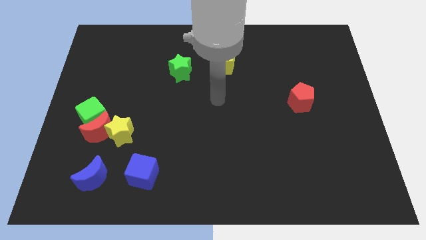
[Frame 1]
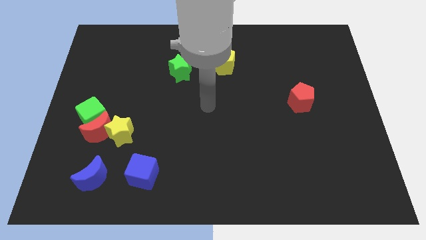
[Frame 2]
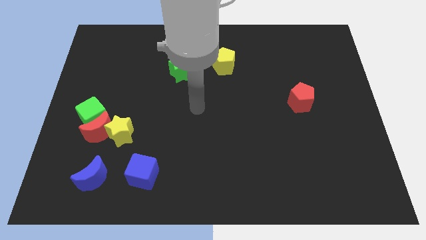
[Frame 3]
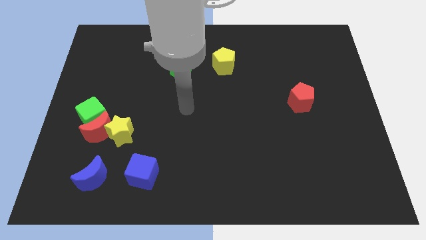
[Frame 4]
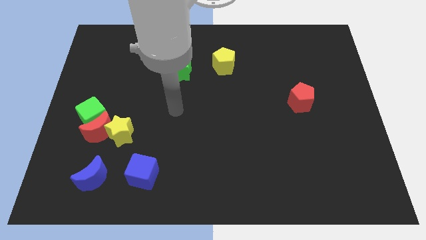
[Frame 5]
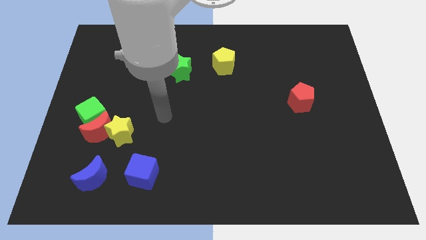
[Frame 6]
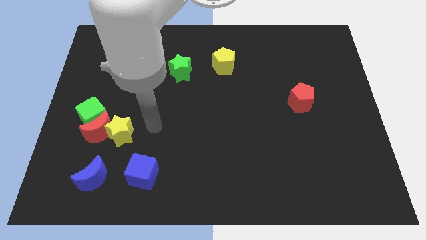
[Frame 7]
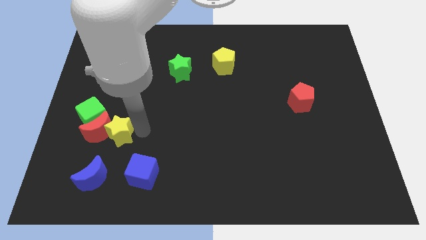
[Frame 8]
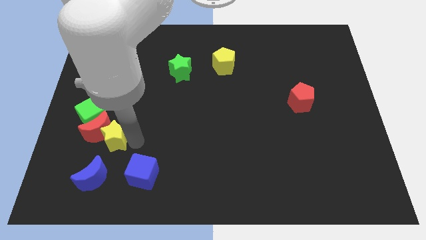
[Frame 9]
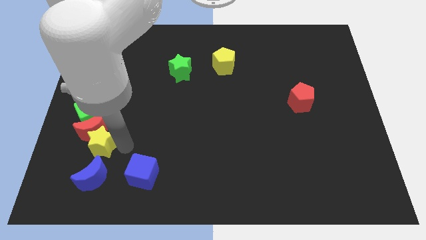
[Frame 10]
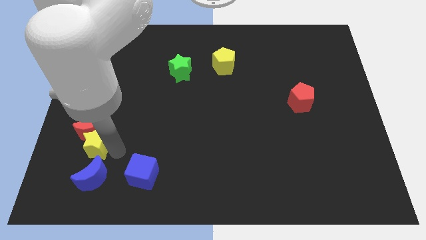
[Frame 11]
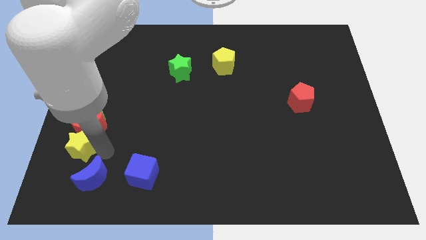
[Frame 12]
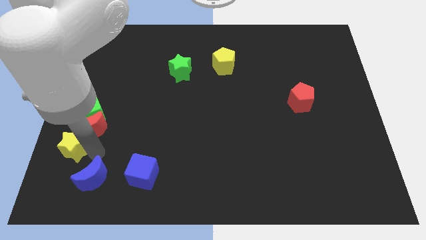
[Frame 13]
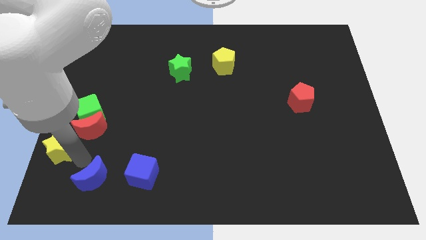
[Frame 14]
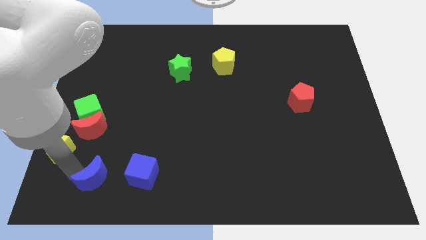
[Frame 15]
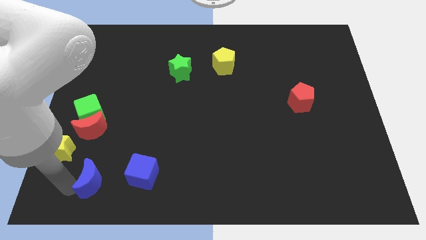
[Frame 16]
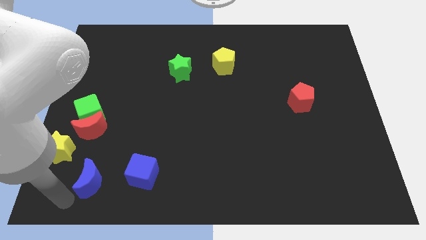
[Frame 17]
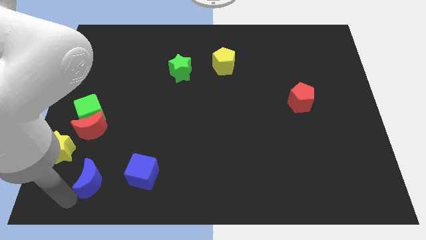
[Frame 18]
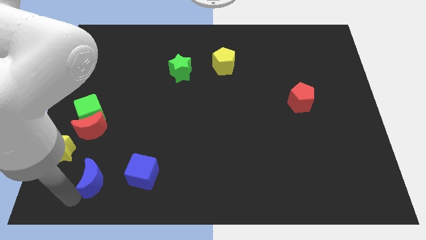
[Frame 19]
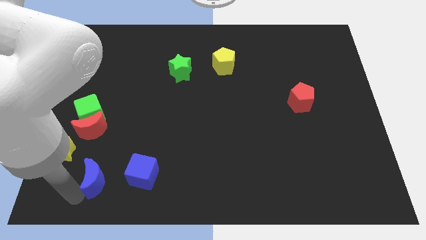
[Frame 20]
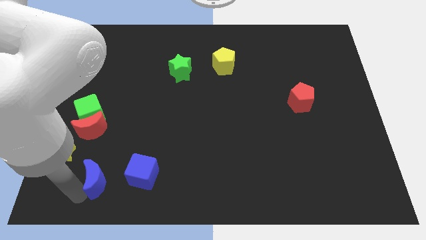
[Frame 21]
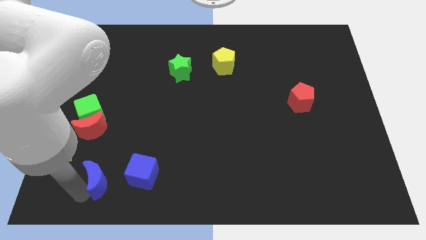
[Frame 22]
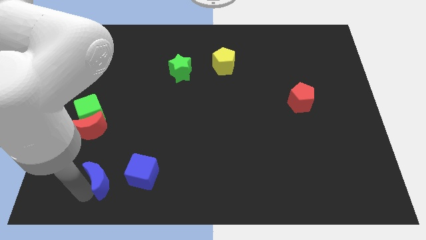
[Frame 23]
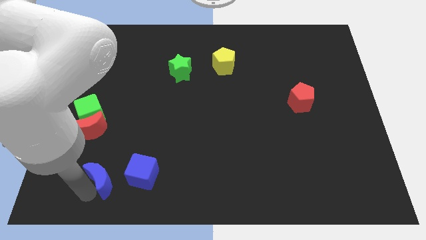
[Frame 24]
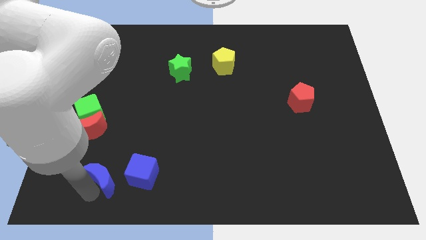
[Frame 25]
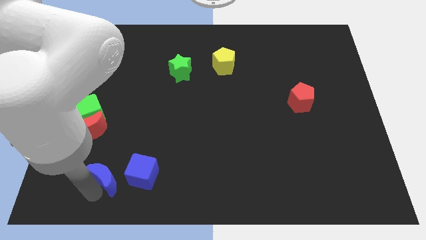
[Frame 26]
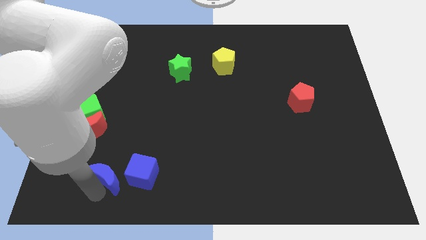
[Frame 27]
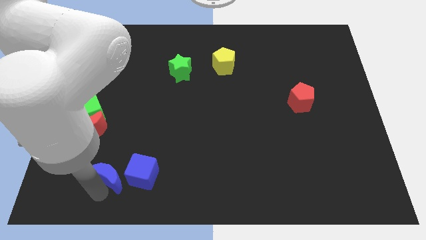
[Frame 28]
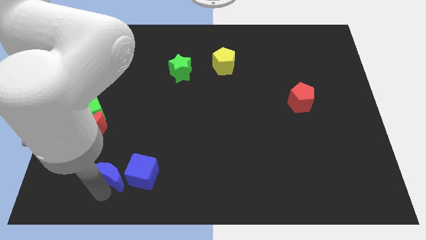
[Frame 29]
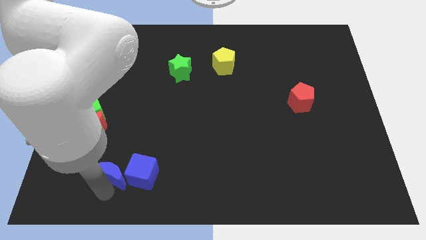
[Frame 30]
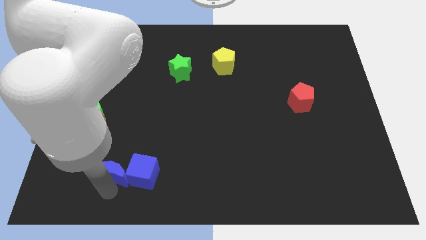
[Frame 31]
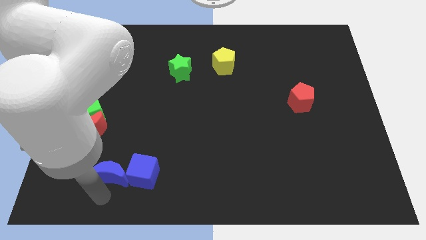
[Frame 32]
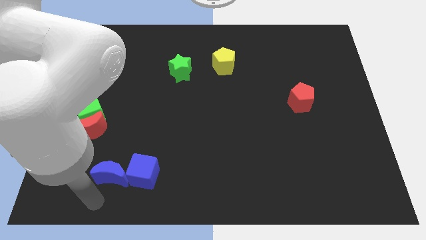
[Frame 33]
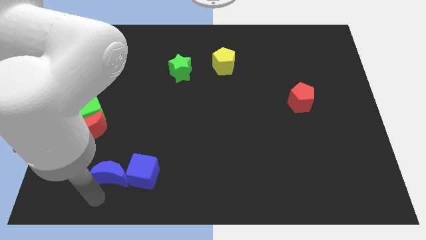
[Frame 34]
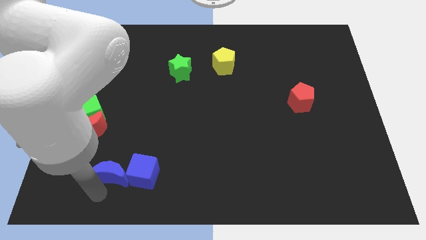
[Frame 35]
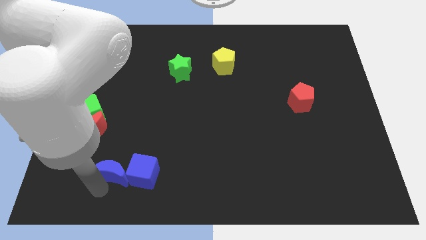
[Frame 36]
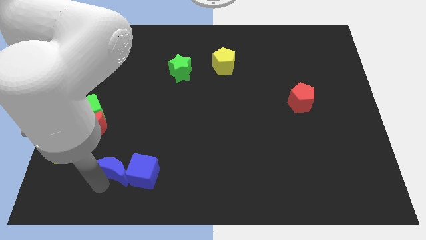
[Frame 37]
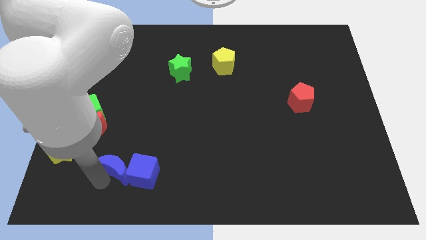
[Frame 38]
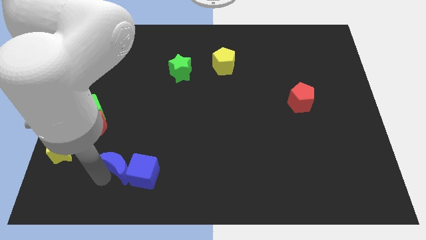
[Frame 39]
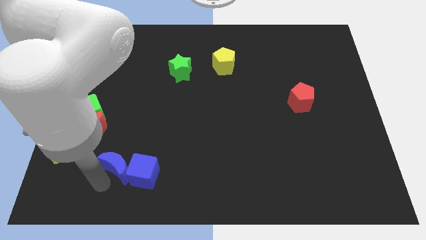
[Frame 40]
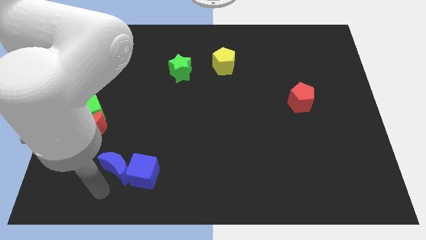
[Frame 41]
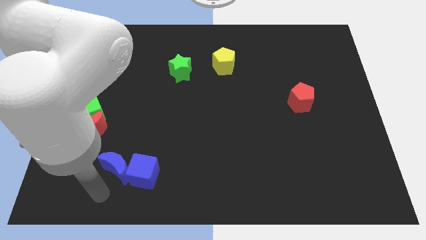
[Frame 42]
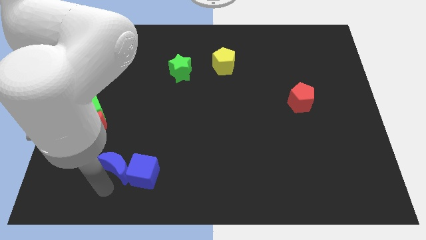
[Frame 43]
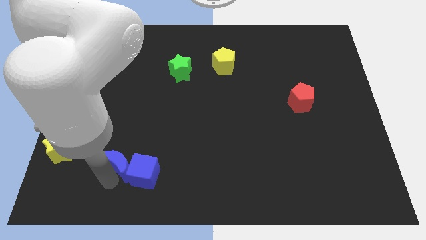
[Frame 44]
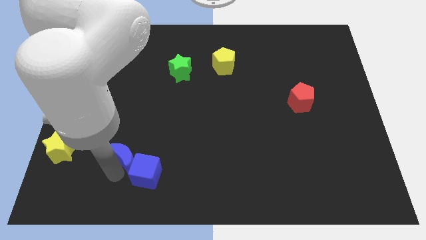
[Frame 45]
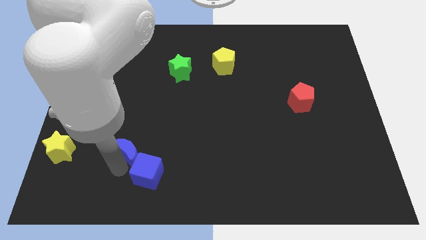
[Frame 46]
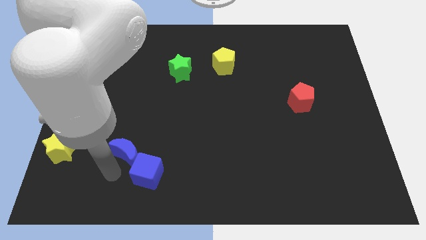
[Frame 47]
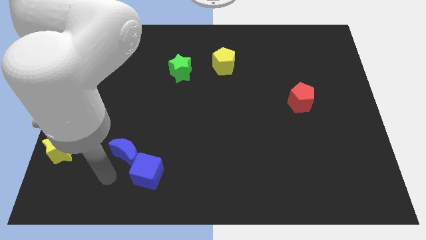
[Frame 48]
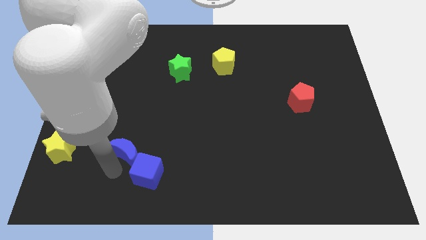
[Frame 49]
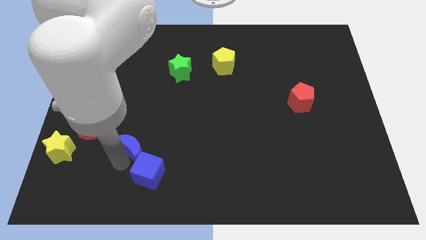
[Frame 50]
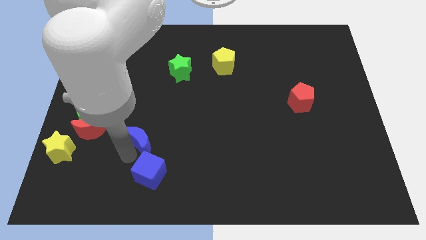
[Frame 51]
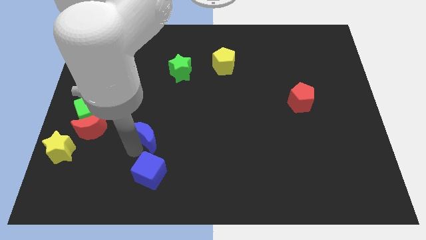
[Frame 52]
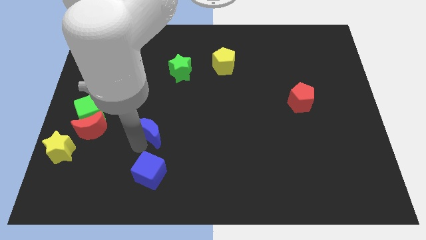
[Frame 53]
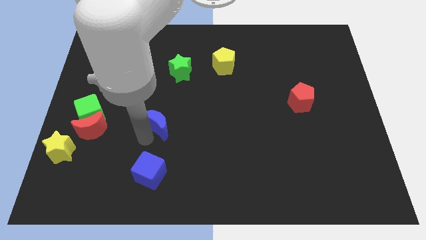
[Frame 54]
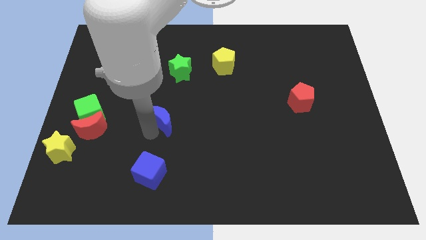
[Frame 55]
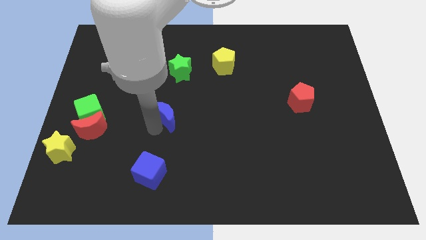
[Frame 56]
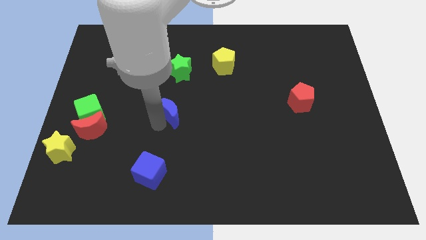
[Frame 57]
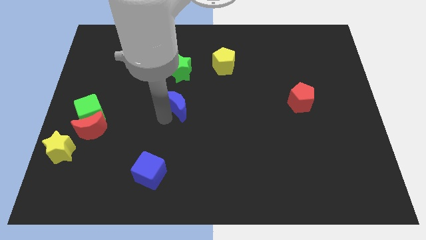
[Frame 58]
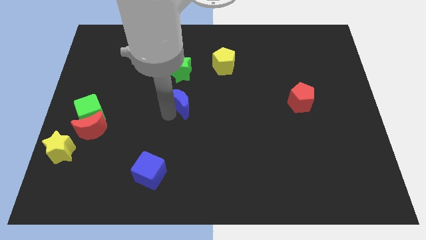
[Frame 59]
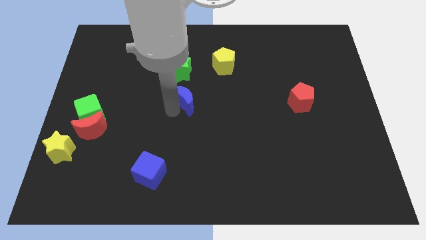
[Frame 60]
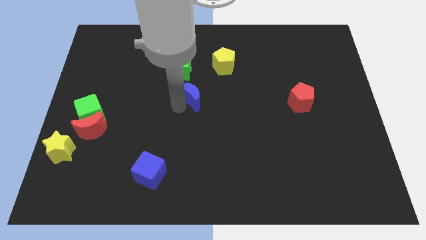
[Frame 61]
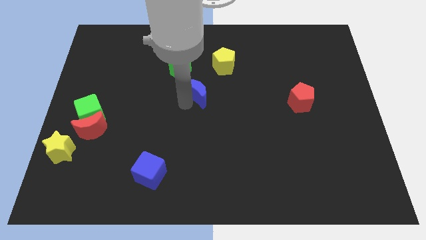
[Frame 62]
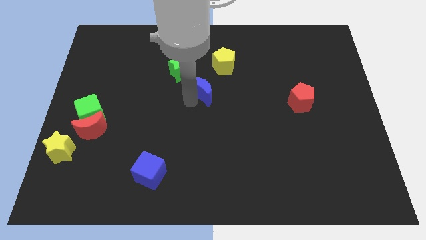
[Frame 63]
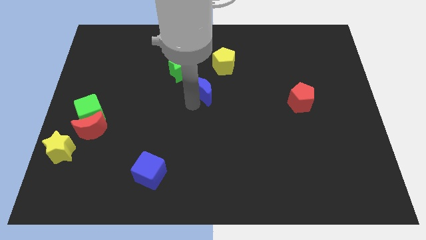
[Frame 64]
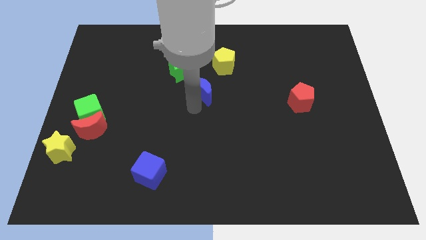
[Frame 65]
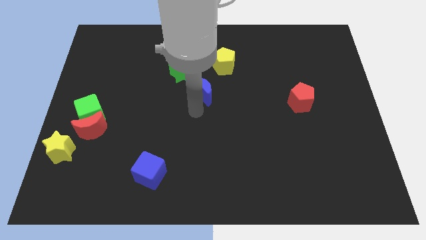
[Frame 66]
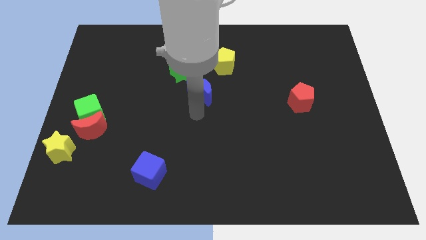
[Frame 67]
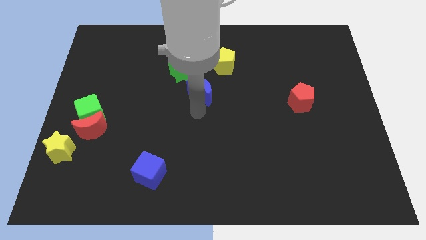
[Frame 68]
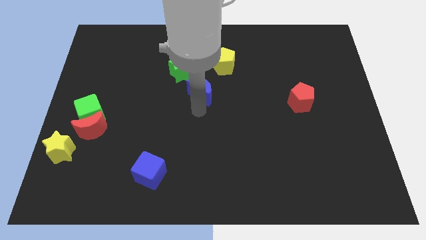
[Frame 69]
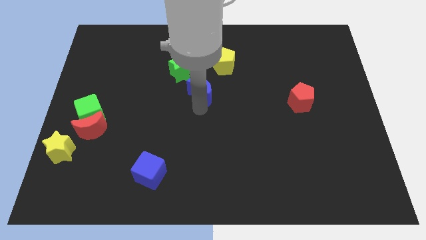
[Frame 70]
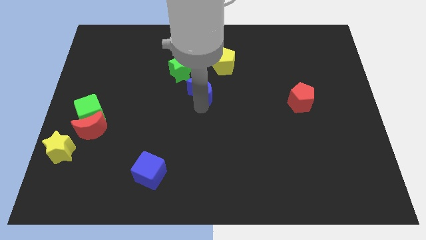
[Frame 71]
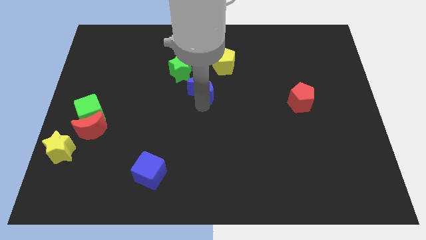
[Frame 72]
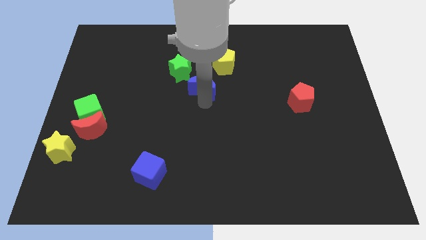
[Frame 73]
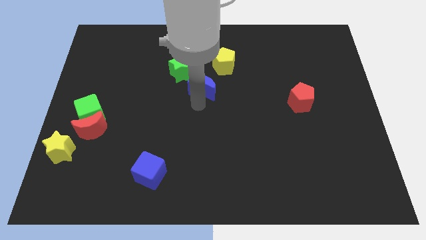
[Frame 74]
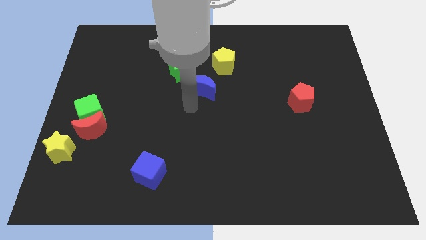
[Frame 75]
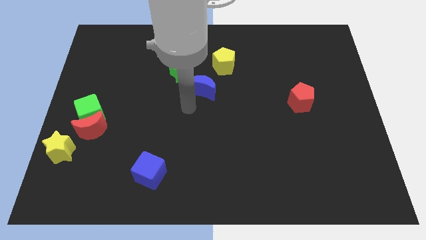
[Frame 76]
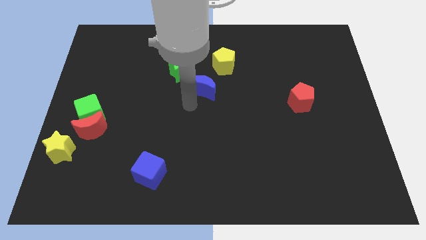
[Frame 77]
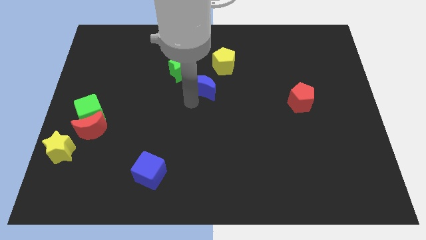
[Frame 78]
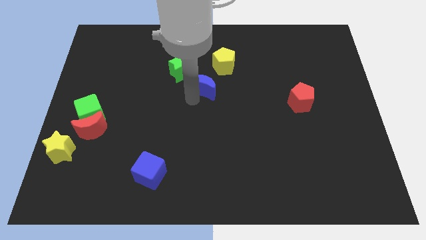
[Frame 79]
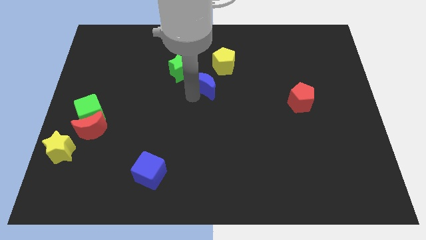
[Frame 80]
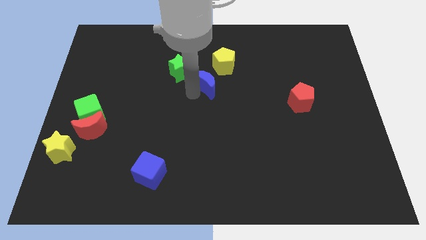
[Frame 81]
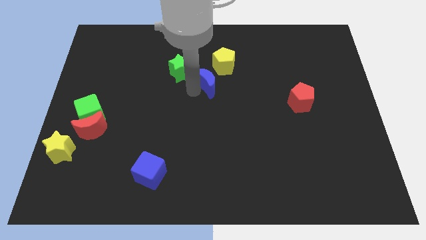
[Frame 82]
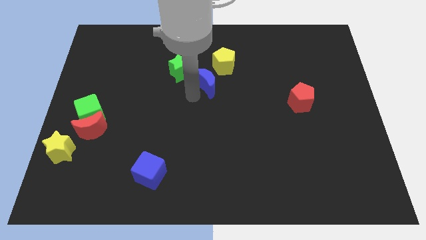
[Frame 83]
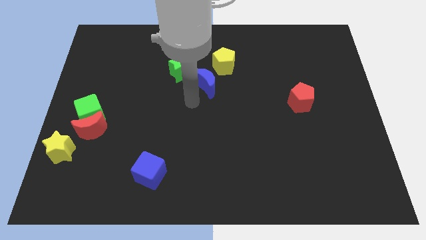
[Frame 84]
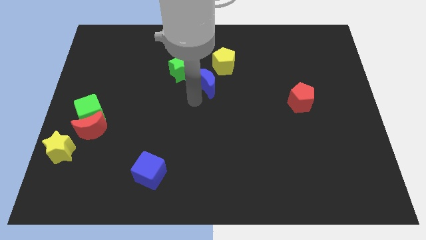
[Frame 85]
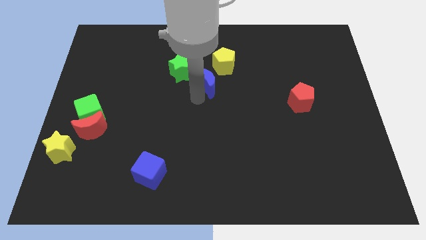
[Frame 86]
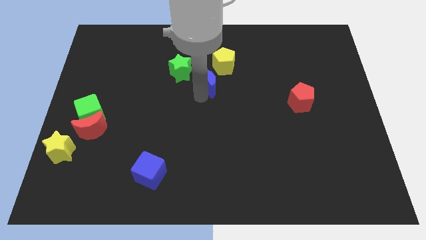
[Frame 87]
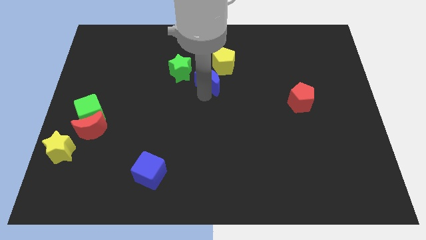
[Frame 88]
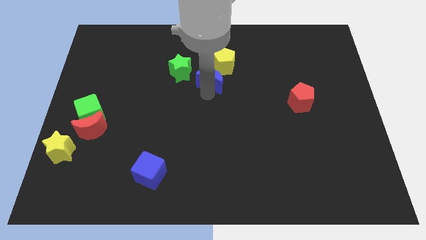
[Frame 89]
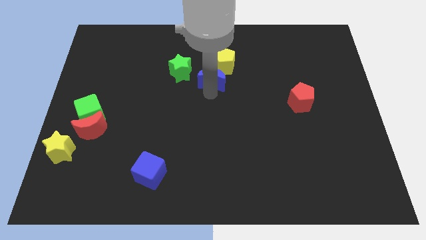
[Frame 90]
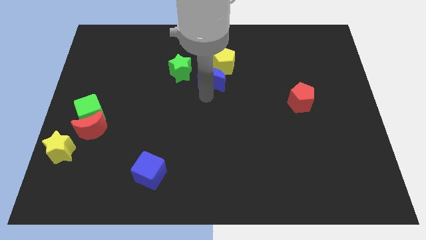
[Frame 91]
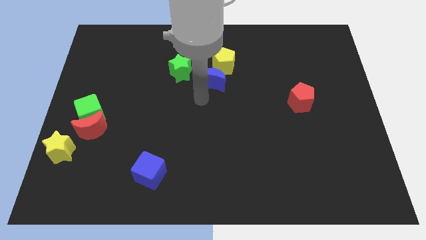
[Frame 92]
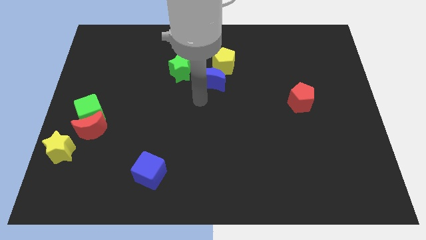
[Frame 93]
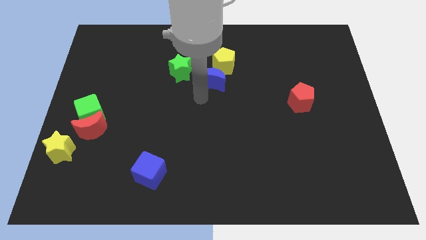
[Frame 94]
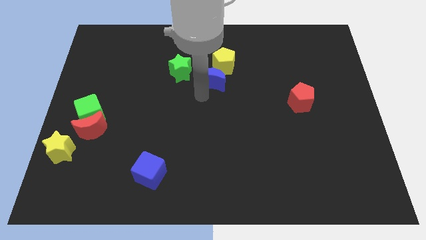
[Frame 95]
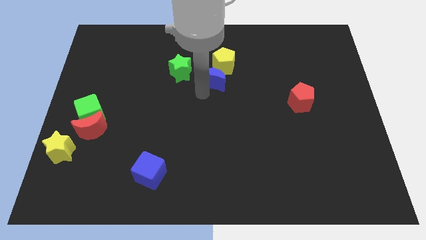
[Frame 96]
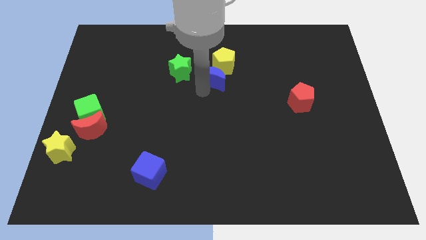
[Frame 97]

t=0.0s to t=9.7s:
push the blue moon close to the yellow pentagon
